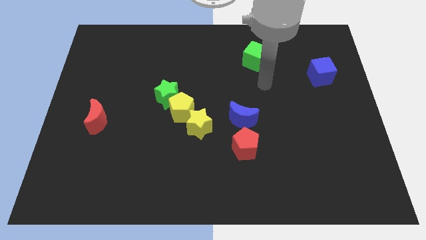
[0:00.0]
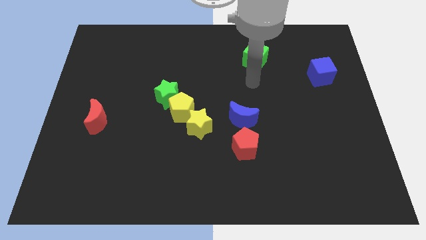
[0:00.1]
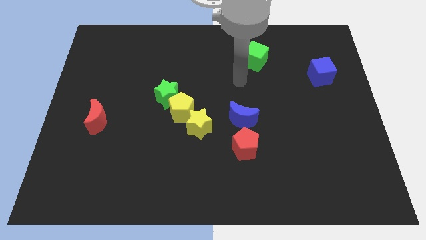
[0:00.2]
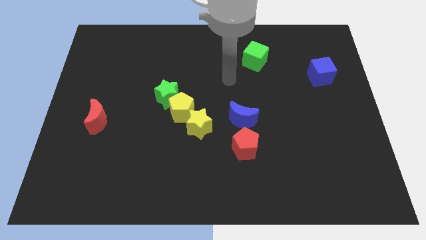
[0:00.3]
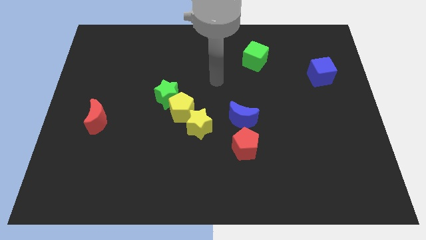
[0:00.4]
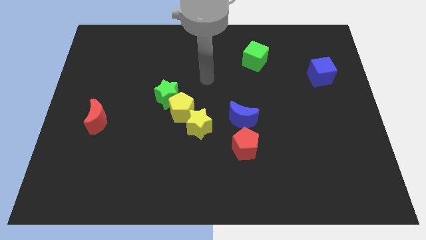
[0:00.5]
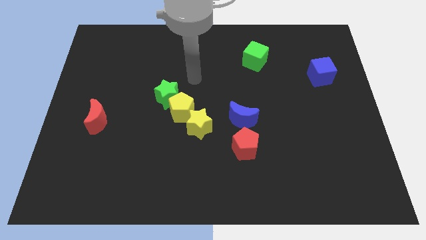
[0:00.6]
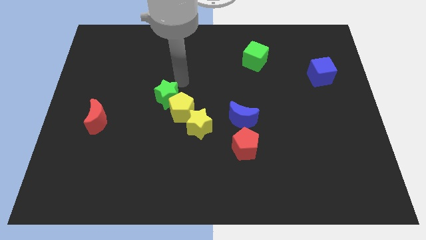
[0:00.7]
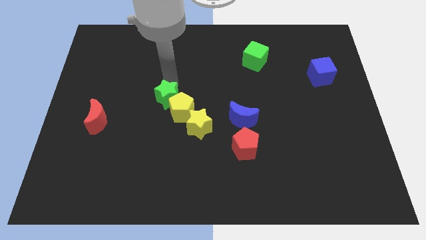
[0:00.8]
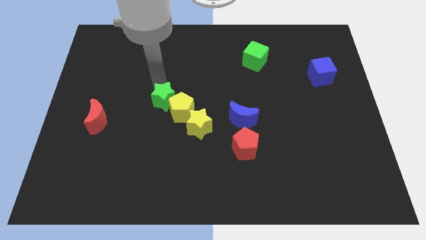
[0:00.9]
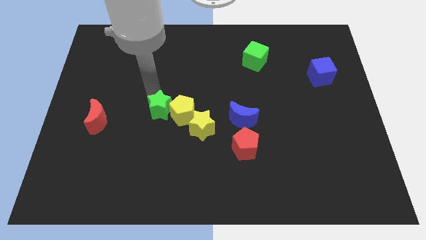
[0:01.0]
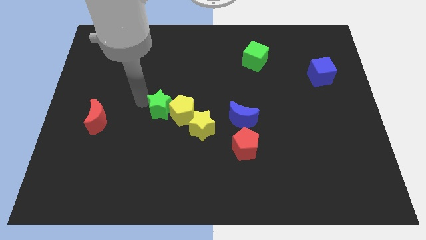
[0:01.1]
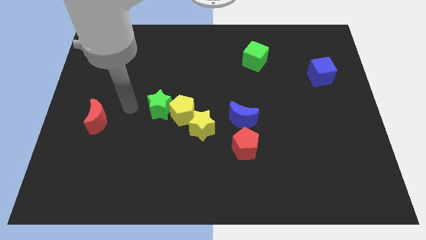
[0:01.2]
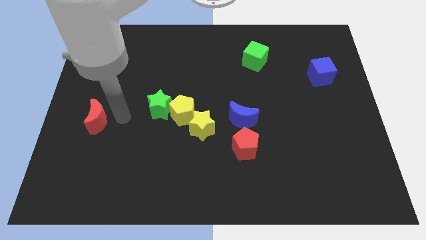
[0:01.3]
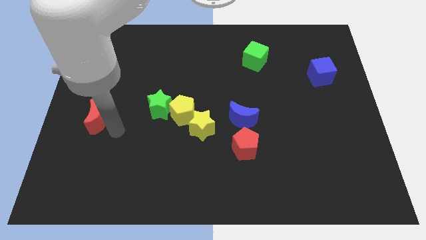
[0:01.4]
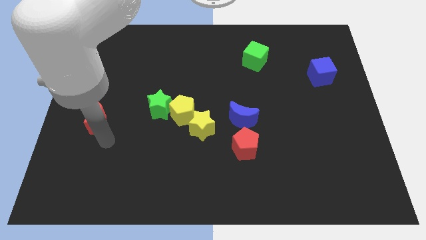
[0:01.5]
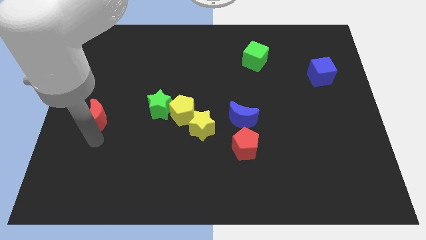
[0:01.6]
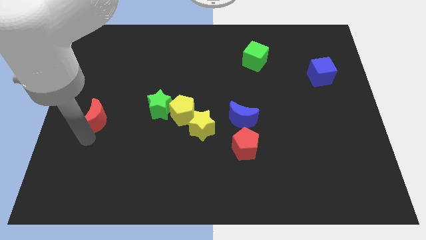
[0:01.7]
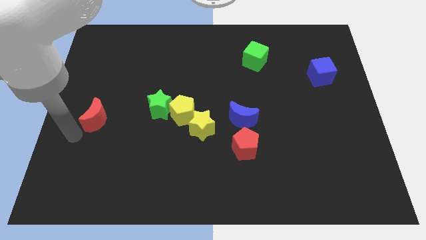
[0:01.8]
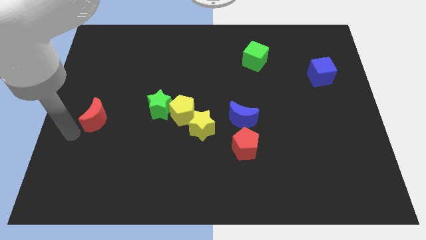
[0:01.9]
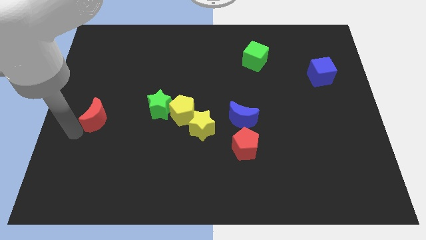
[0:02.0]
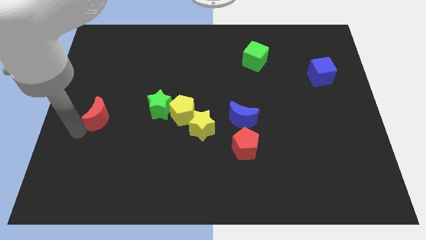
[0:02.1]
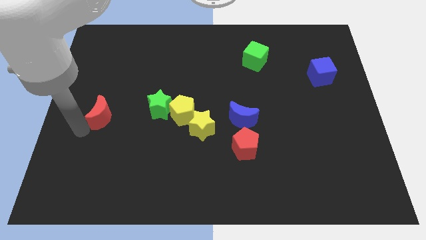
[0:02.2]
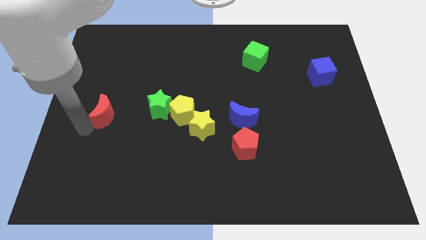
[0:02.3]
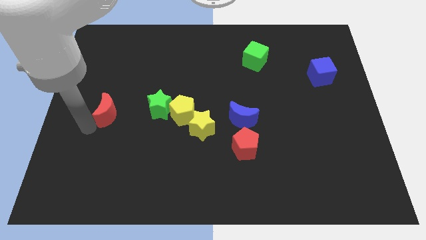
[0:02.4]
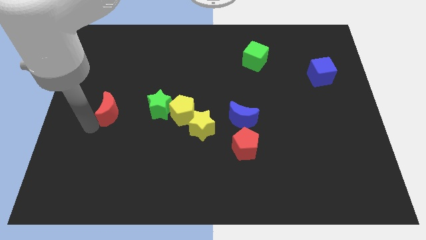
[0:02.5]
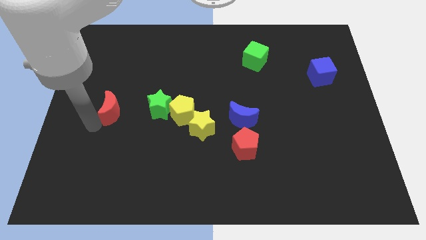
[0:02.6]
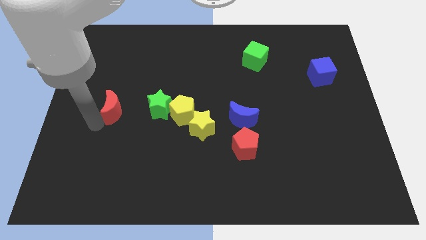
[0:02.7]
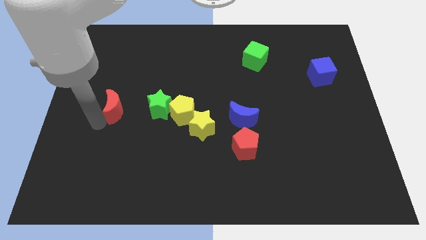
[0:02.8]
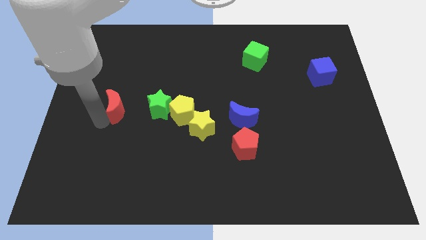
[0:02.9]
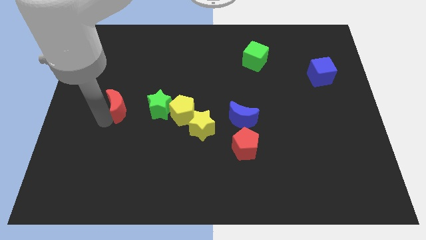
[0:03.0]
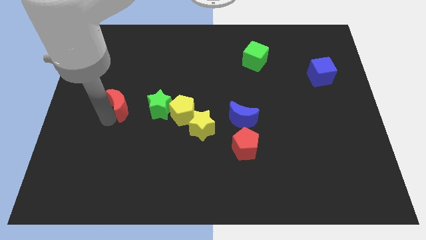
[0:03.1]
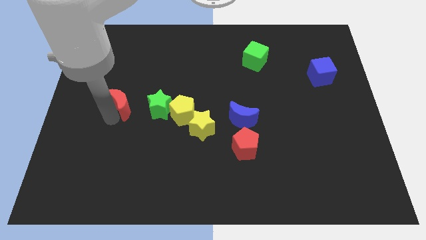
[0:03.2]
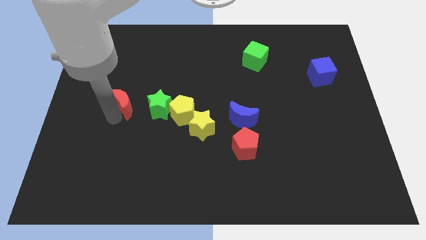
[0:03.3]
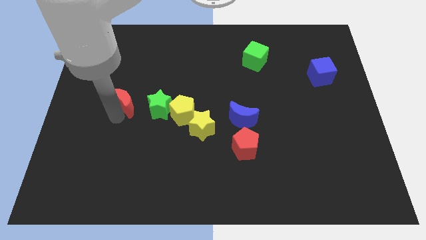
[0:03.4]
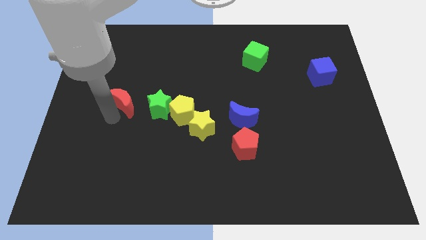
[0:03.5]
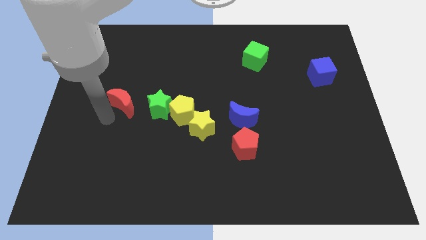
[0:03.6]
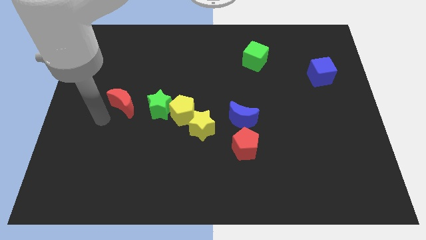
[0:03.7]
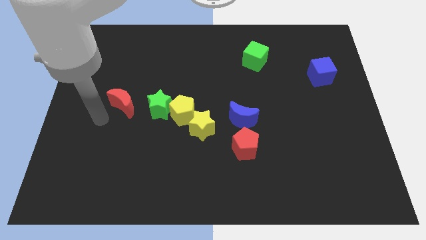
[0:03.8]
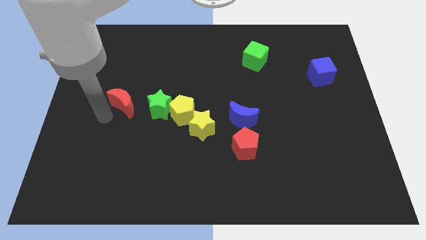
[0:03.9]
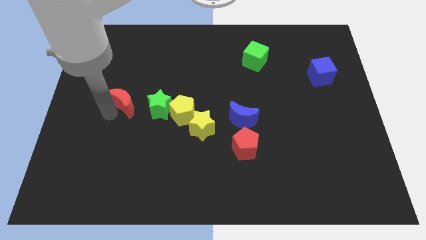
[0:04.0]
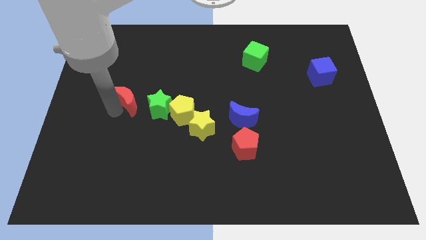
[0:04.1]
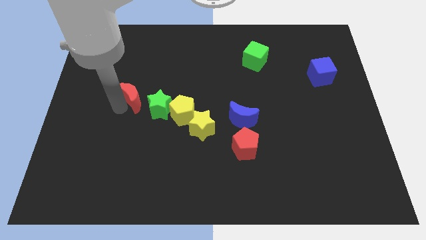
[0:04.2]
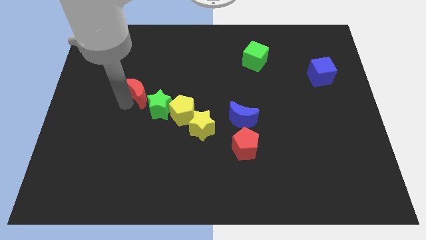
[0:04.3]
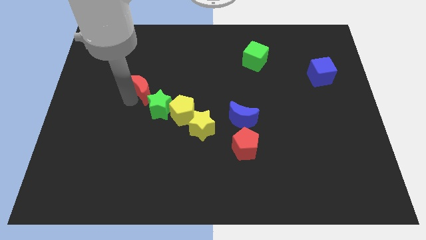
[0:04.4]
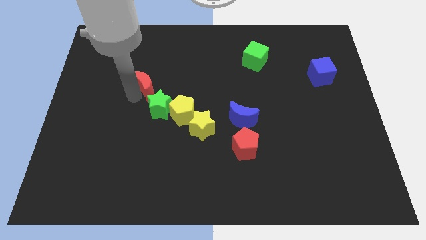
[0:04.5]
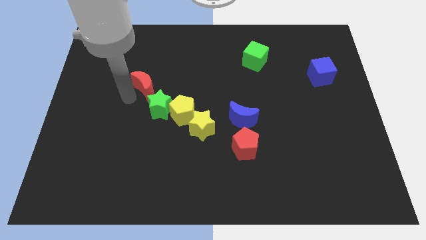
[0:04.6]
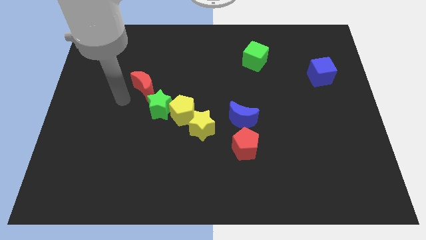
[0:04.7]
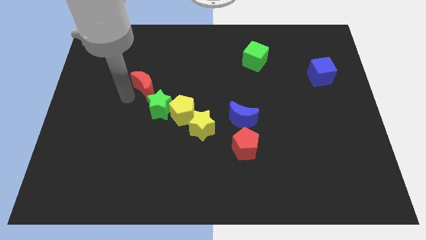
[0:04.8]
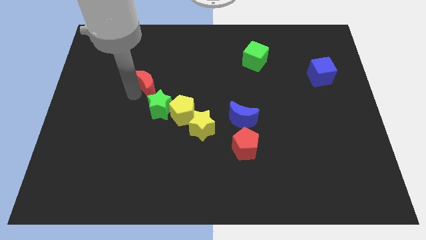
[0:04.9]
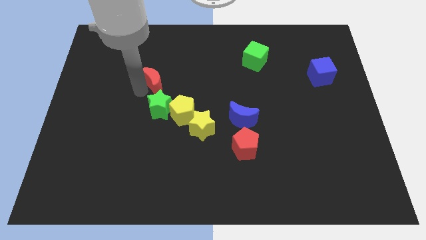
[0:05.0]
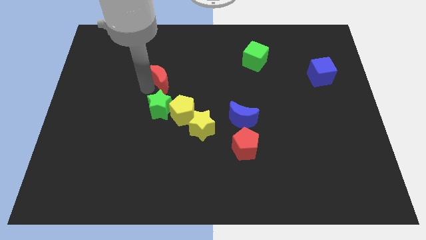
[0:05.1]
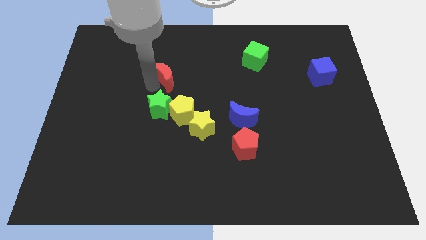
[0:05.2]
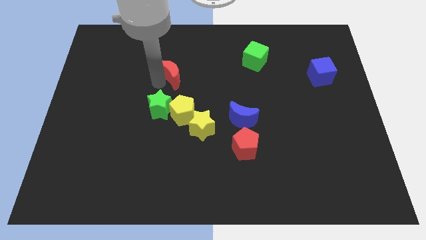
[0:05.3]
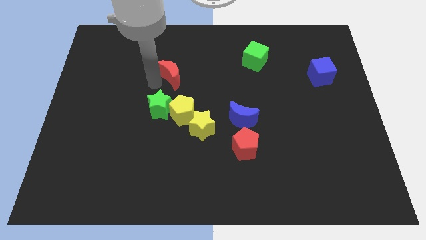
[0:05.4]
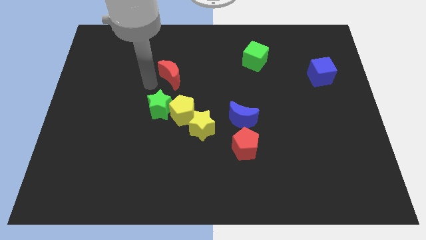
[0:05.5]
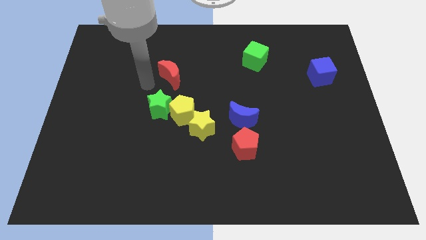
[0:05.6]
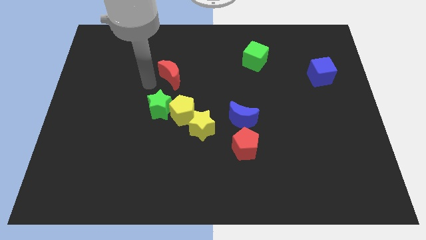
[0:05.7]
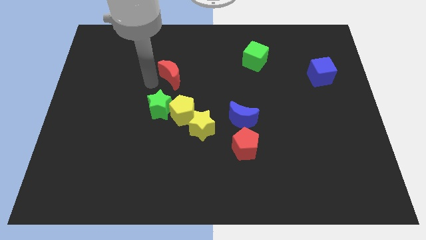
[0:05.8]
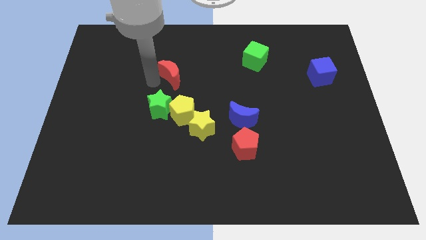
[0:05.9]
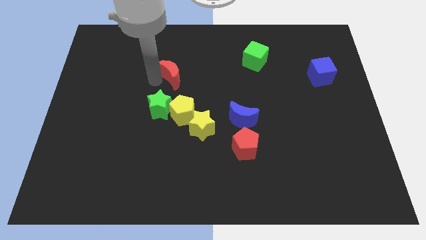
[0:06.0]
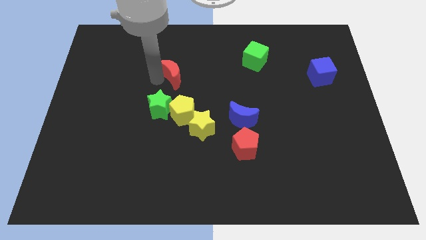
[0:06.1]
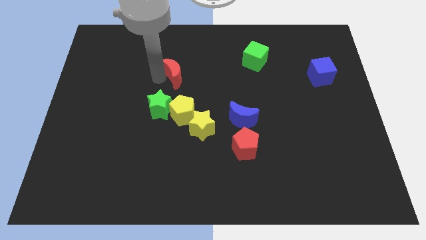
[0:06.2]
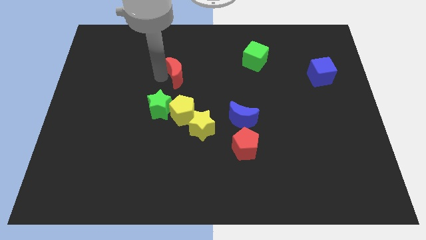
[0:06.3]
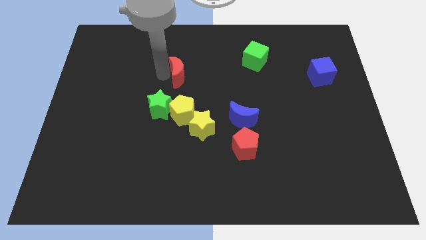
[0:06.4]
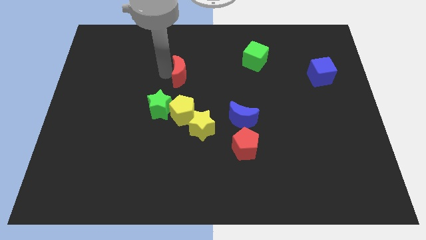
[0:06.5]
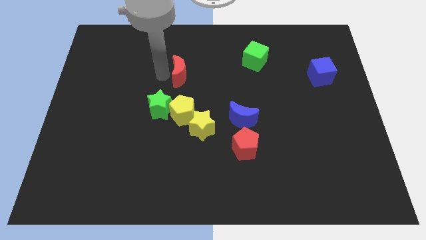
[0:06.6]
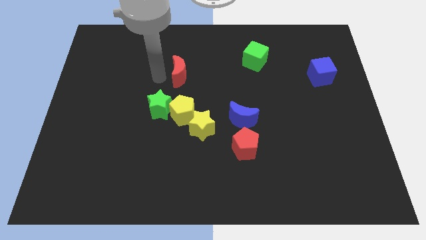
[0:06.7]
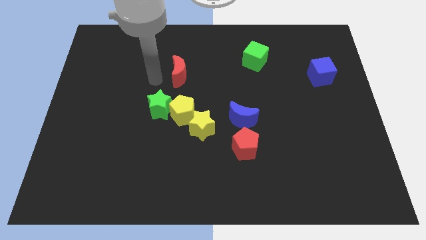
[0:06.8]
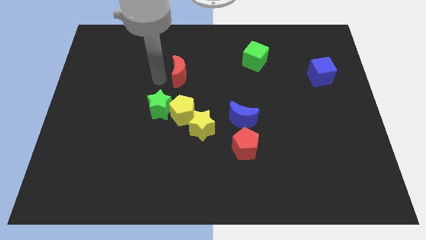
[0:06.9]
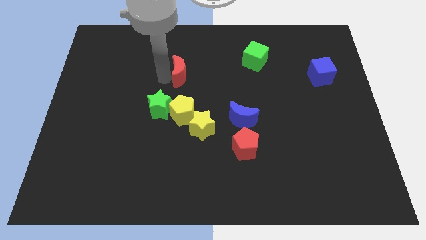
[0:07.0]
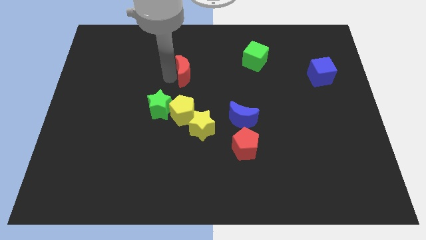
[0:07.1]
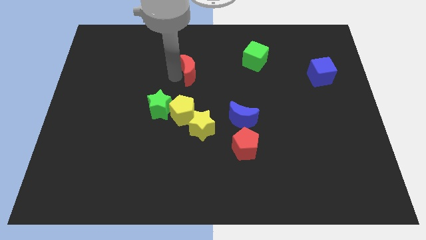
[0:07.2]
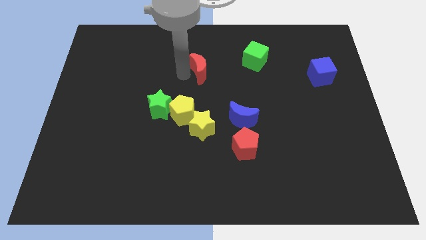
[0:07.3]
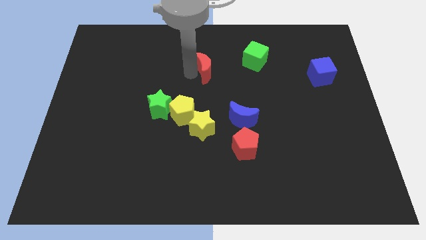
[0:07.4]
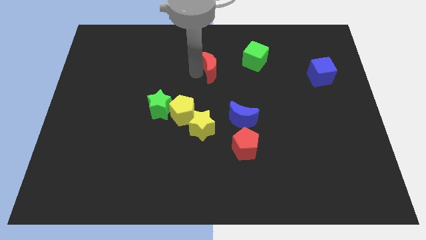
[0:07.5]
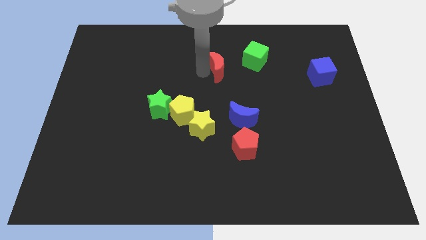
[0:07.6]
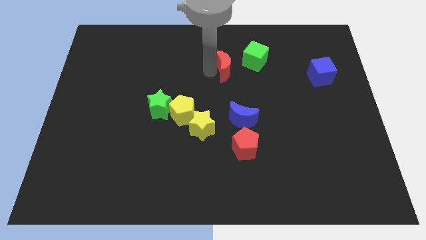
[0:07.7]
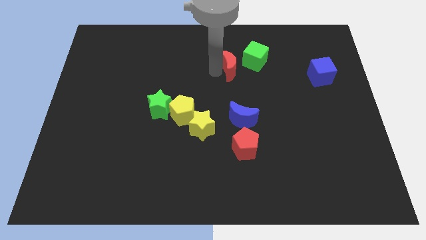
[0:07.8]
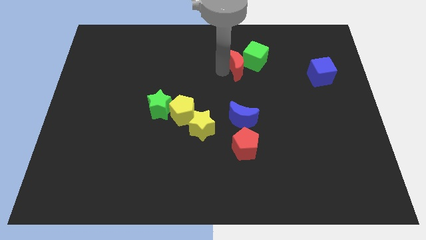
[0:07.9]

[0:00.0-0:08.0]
push the red moon to the green cube
